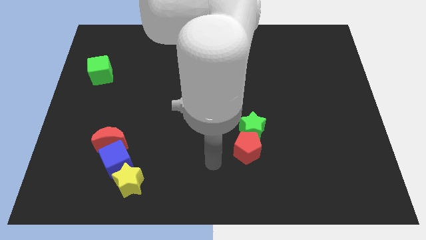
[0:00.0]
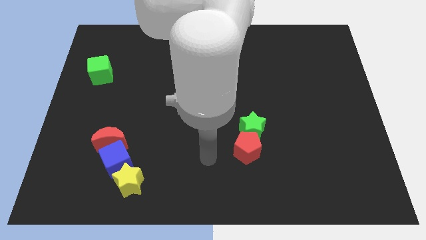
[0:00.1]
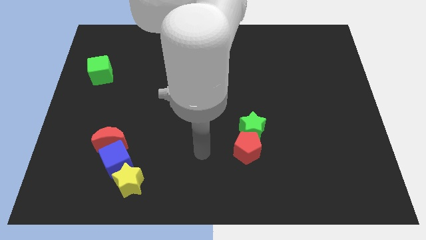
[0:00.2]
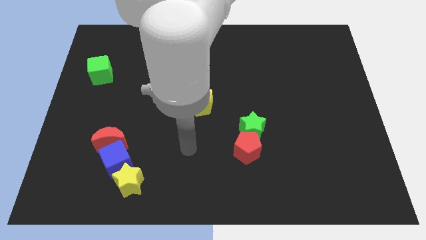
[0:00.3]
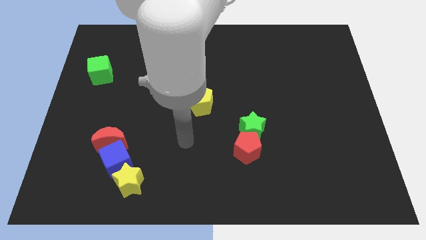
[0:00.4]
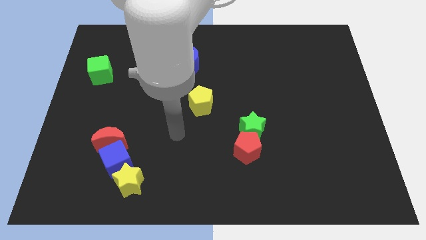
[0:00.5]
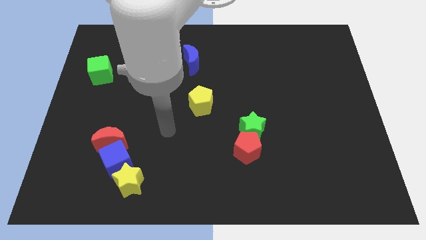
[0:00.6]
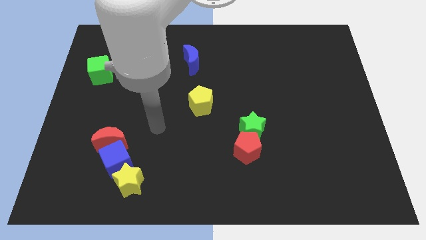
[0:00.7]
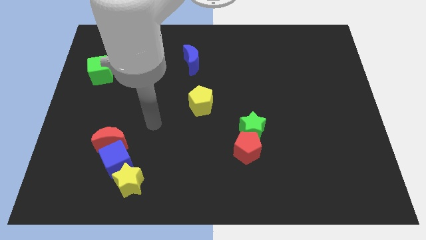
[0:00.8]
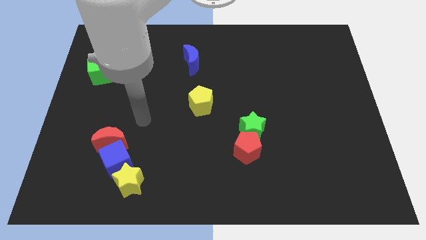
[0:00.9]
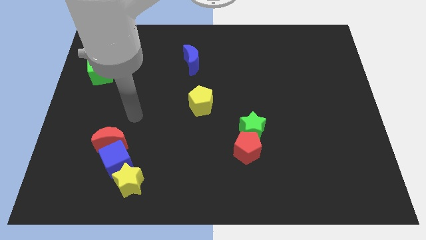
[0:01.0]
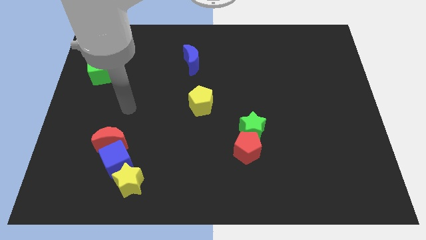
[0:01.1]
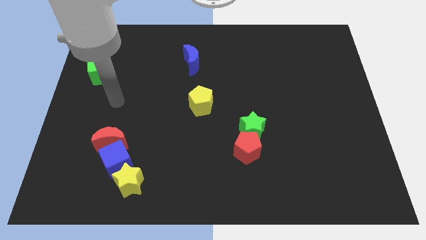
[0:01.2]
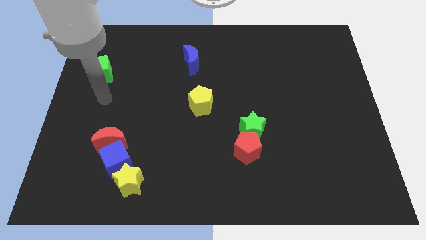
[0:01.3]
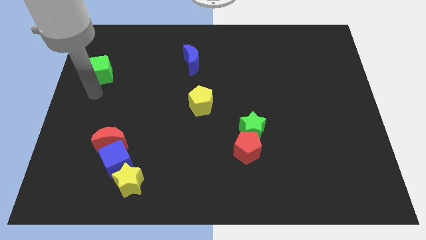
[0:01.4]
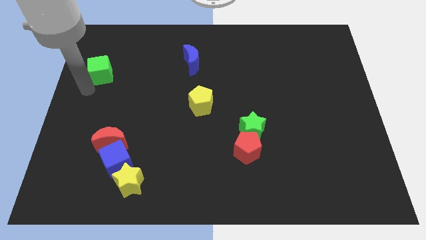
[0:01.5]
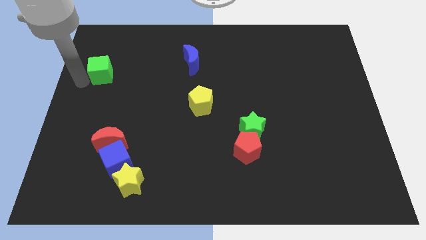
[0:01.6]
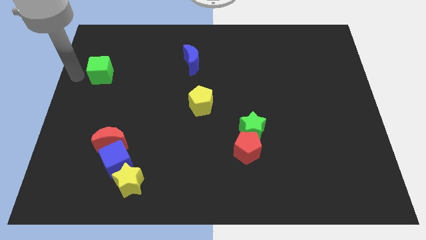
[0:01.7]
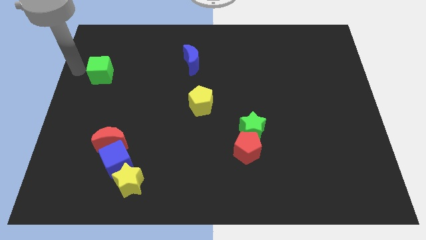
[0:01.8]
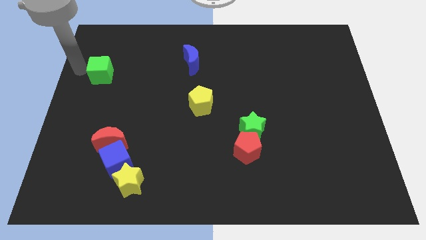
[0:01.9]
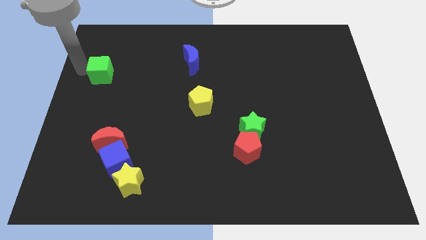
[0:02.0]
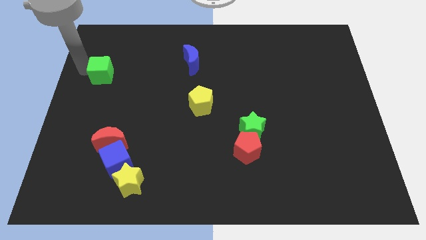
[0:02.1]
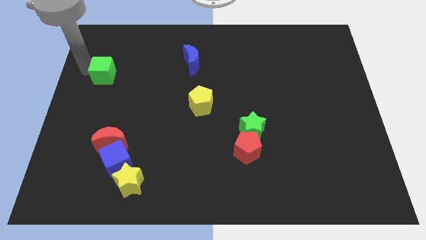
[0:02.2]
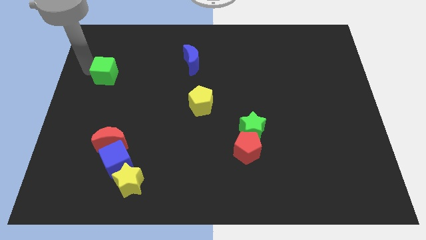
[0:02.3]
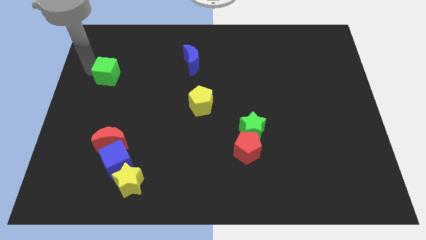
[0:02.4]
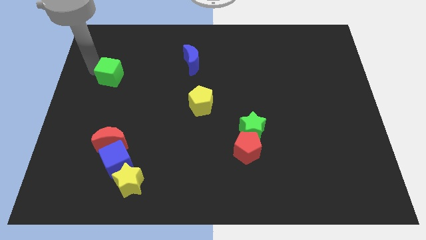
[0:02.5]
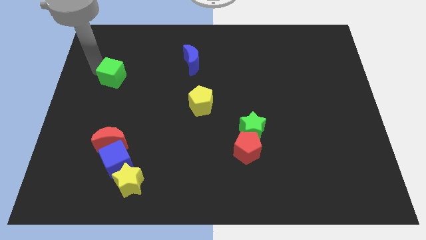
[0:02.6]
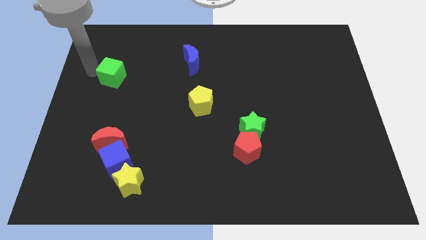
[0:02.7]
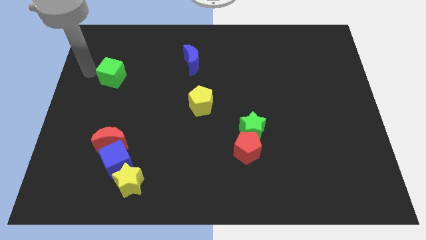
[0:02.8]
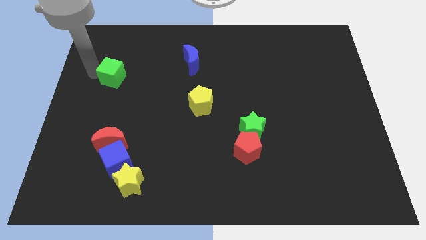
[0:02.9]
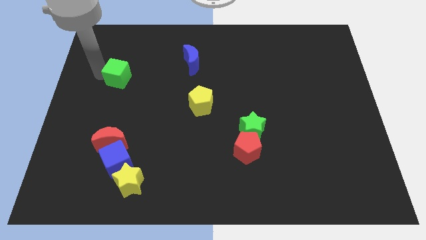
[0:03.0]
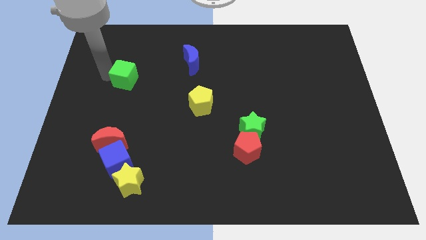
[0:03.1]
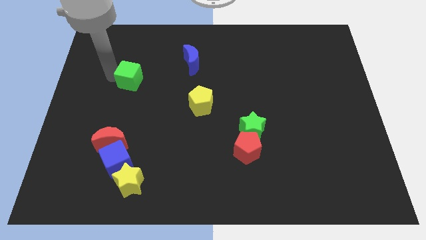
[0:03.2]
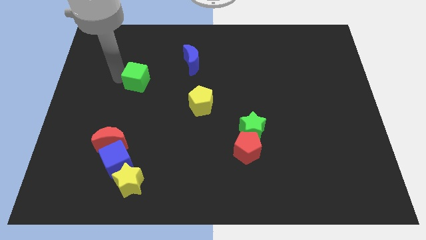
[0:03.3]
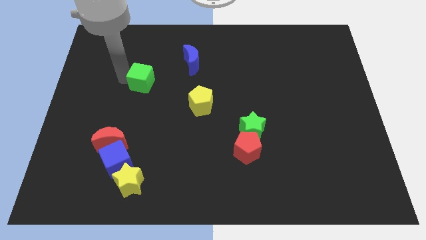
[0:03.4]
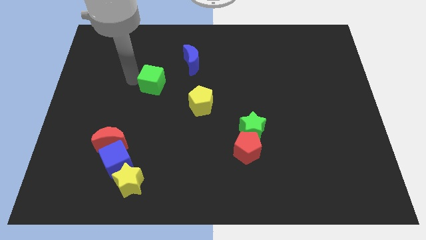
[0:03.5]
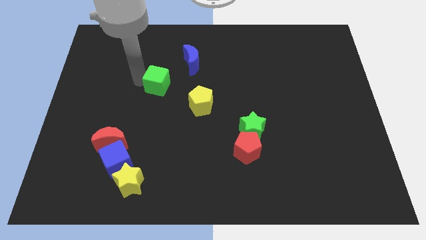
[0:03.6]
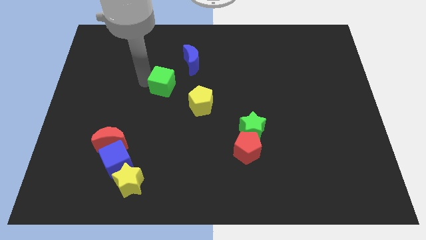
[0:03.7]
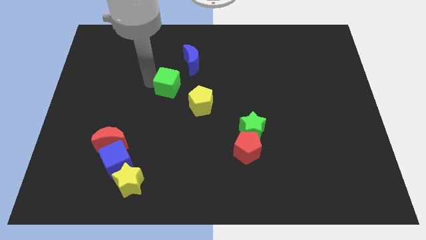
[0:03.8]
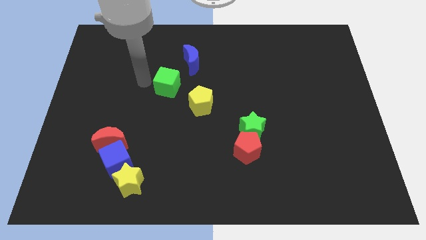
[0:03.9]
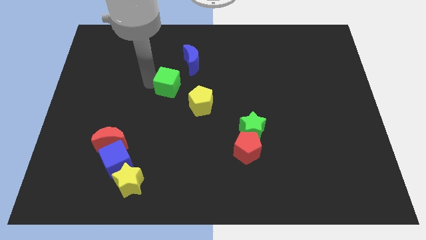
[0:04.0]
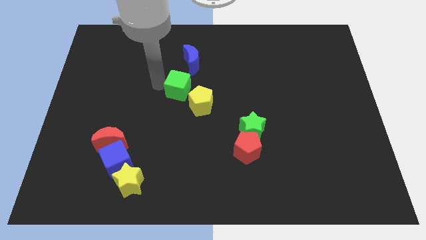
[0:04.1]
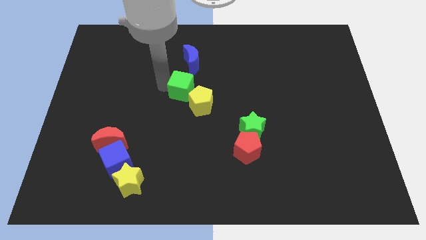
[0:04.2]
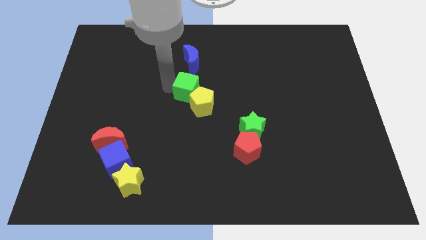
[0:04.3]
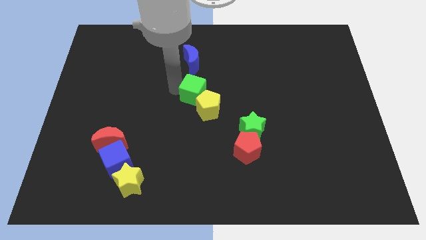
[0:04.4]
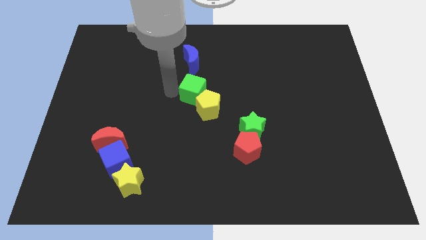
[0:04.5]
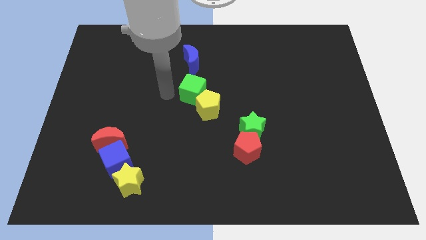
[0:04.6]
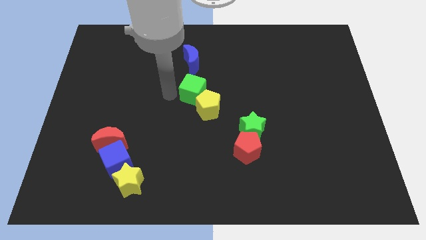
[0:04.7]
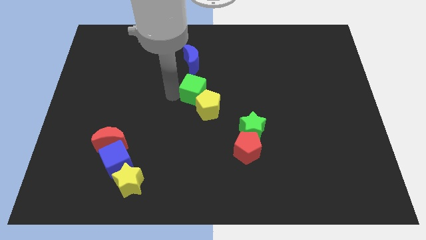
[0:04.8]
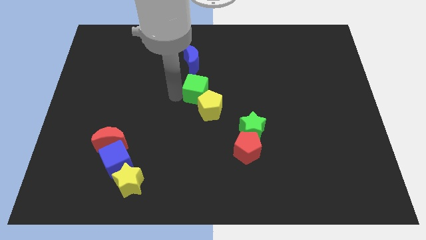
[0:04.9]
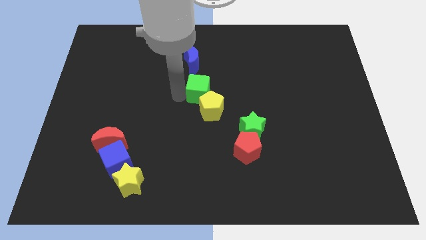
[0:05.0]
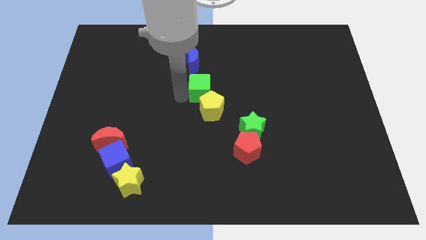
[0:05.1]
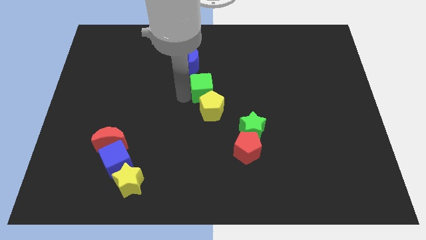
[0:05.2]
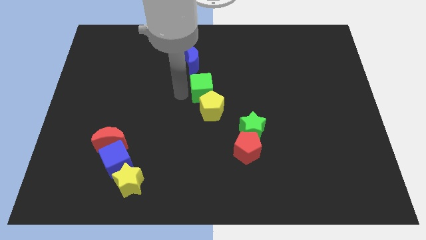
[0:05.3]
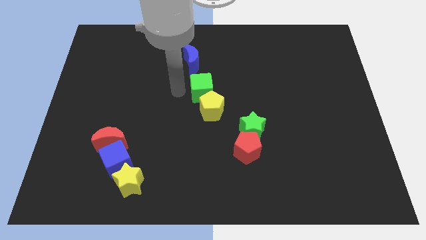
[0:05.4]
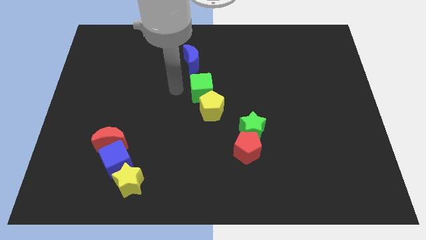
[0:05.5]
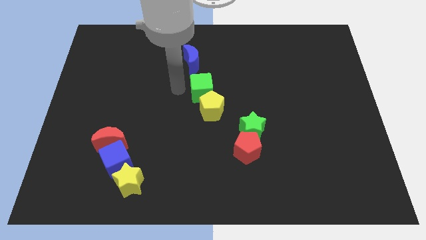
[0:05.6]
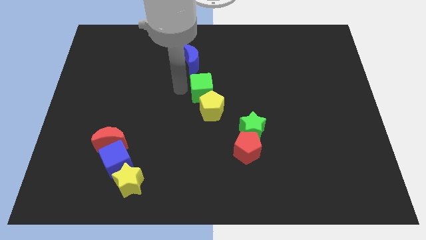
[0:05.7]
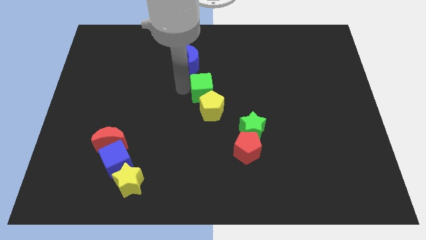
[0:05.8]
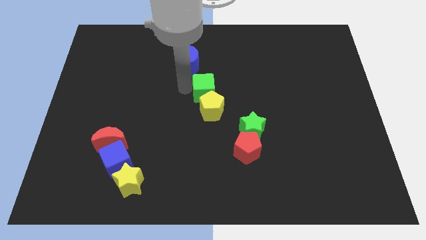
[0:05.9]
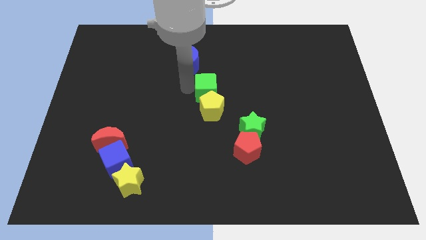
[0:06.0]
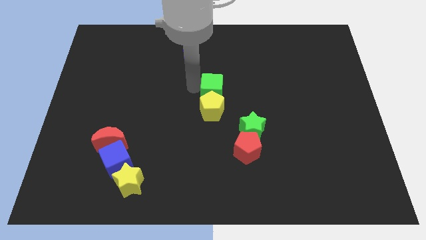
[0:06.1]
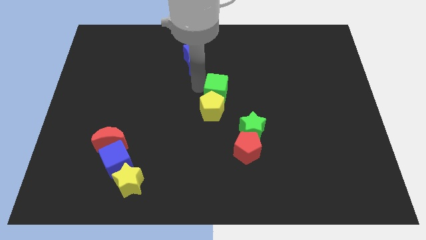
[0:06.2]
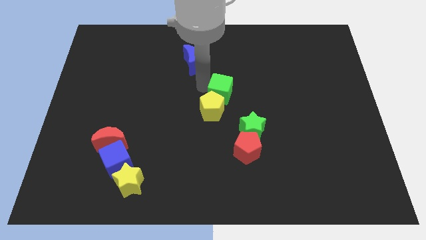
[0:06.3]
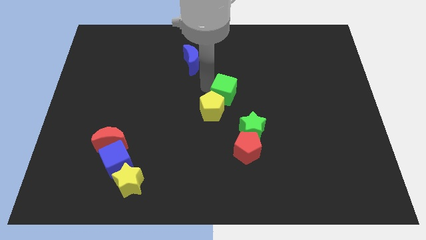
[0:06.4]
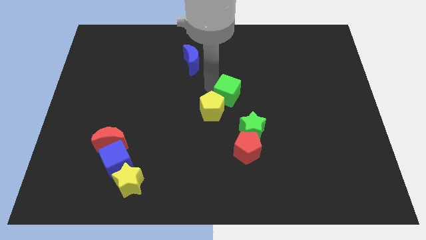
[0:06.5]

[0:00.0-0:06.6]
push the green cube just right of the yellow pentagon
